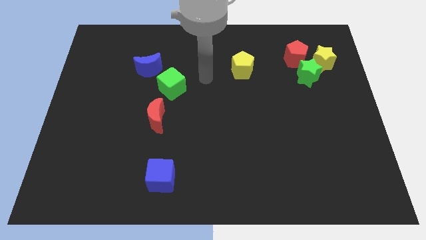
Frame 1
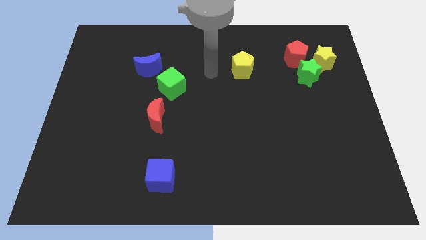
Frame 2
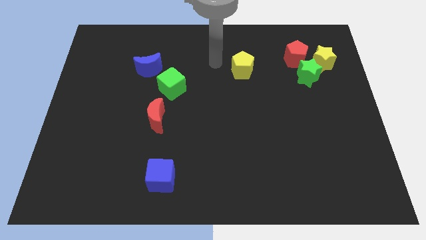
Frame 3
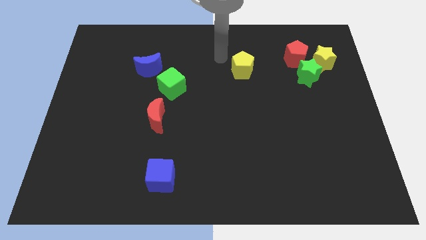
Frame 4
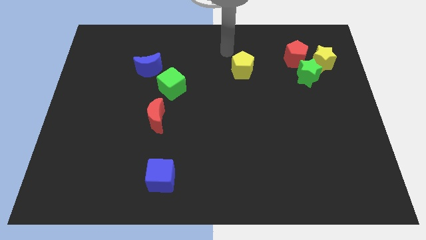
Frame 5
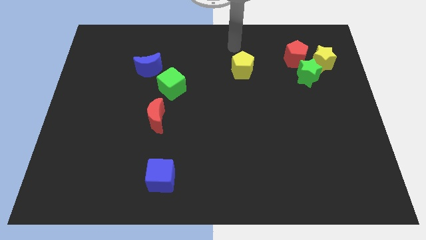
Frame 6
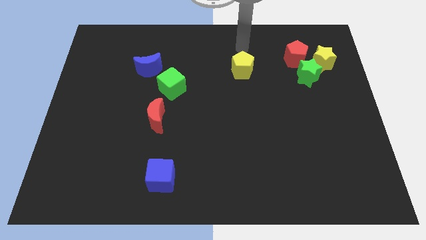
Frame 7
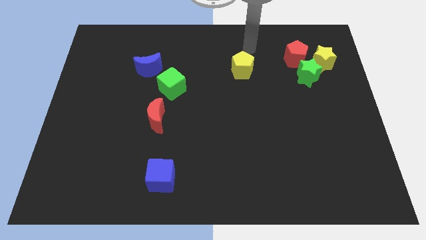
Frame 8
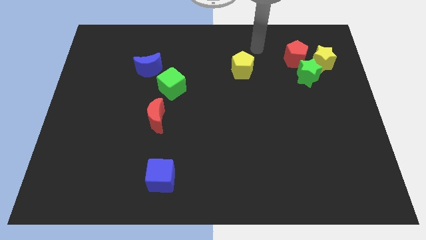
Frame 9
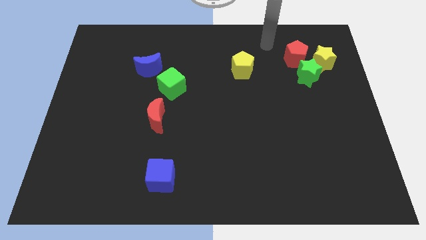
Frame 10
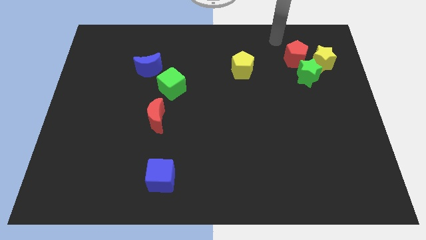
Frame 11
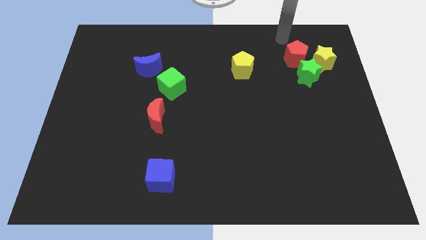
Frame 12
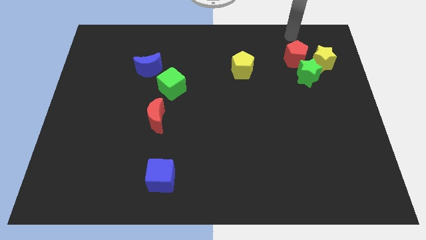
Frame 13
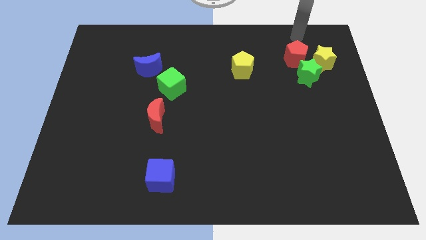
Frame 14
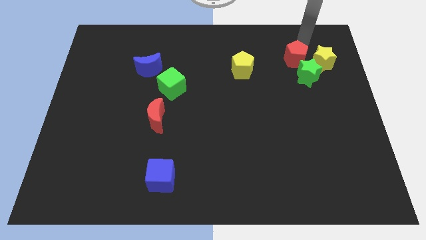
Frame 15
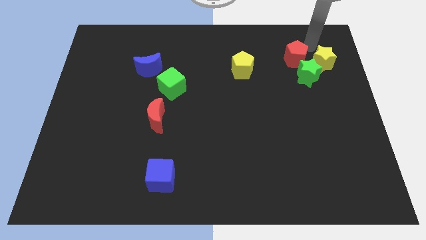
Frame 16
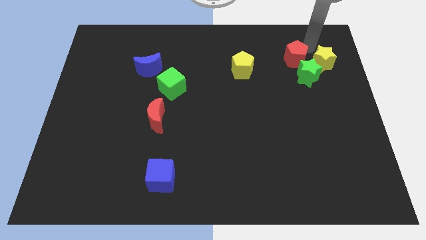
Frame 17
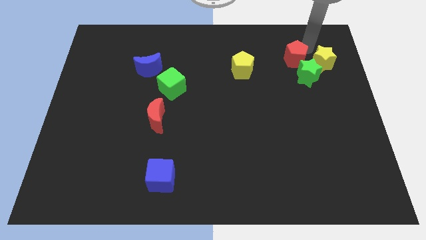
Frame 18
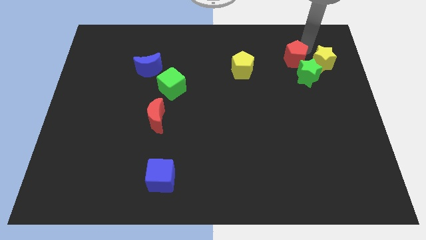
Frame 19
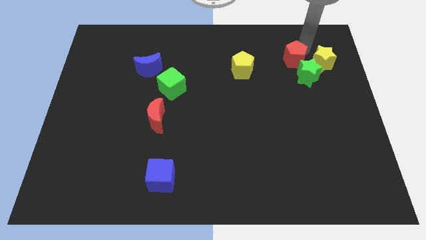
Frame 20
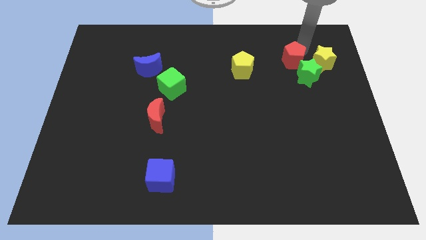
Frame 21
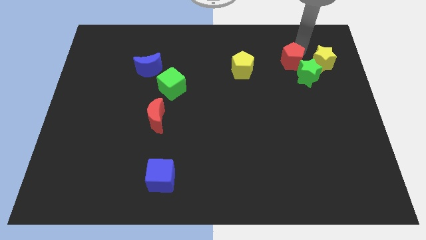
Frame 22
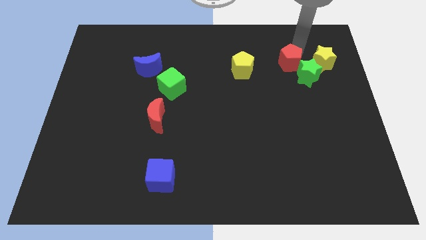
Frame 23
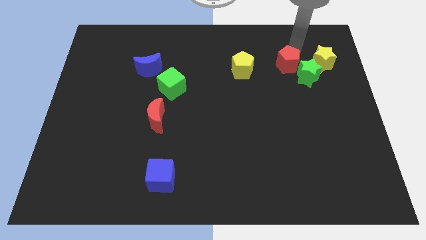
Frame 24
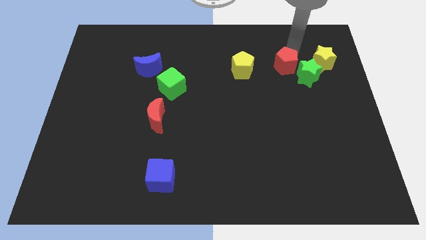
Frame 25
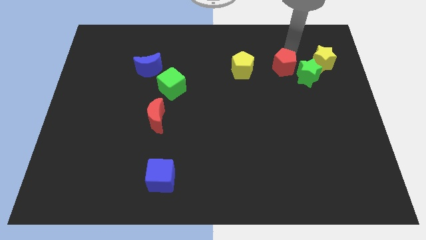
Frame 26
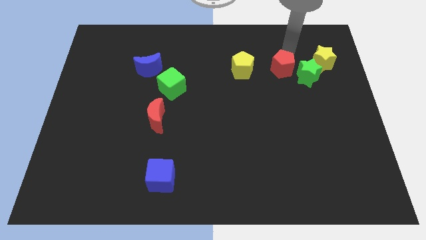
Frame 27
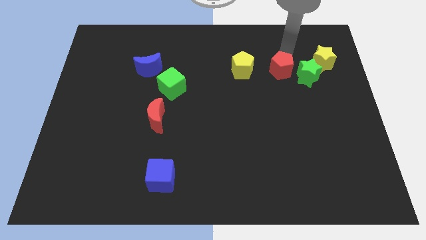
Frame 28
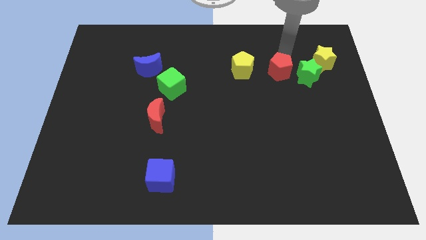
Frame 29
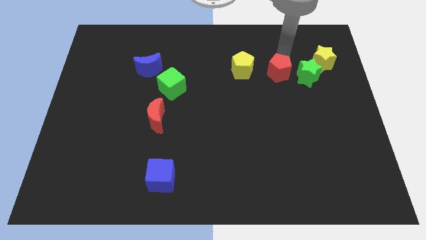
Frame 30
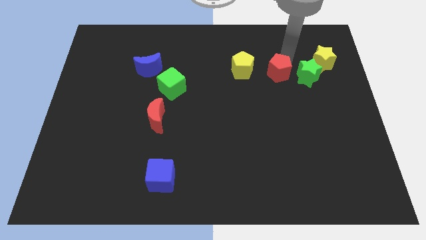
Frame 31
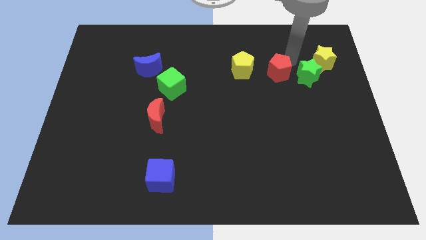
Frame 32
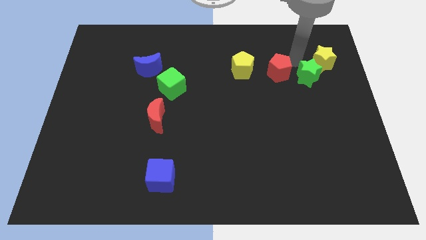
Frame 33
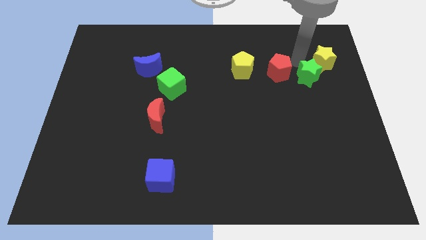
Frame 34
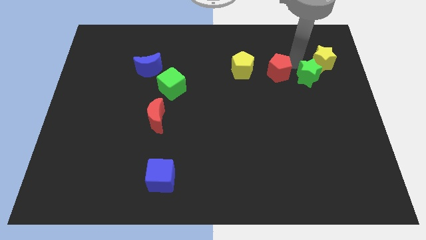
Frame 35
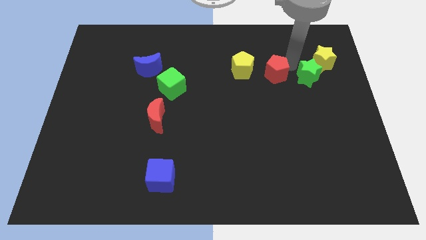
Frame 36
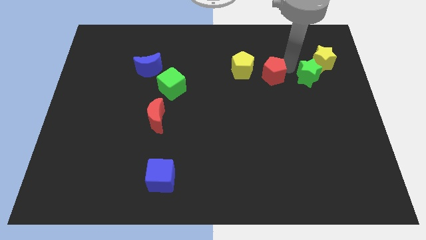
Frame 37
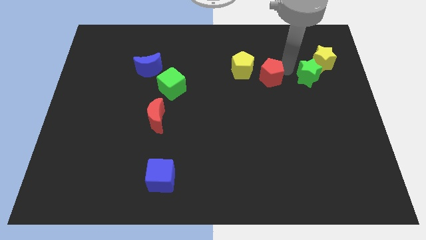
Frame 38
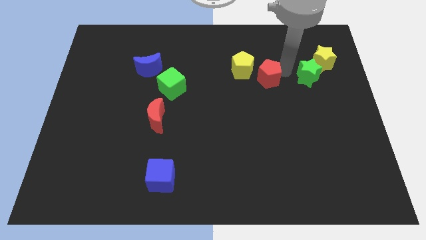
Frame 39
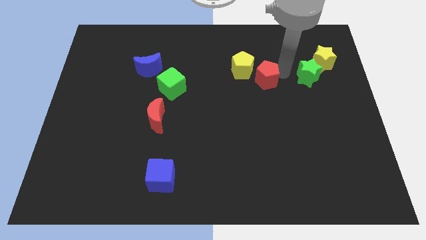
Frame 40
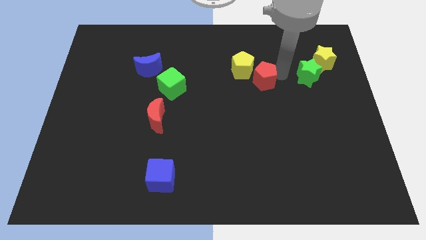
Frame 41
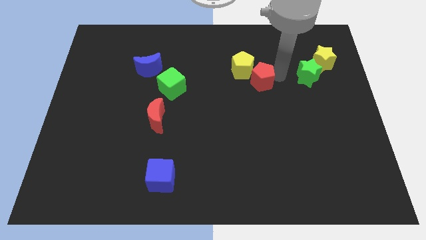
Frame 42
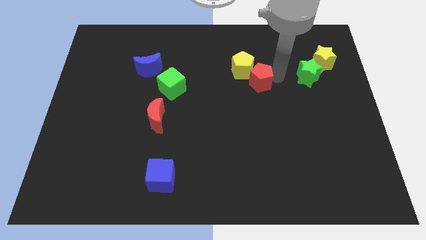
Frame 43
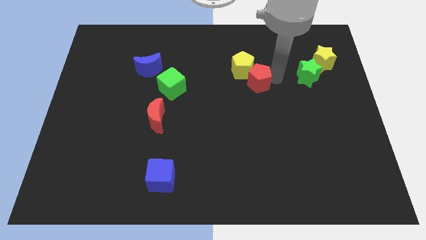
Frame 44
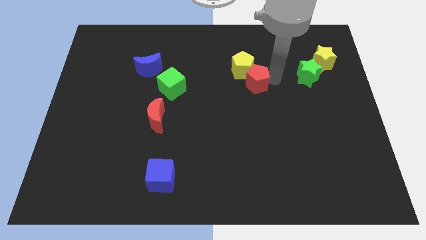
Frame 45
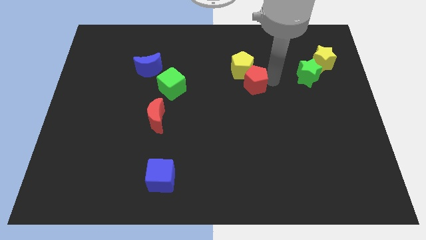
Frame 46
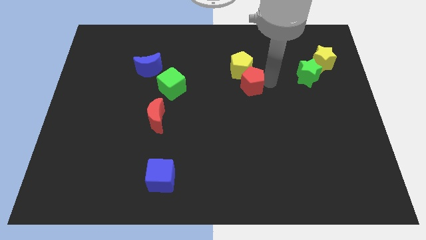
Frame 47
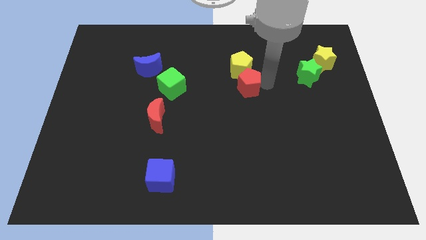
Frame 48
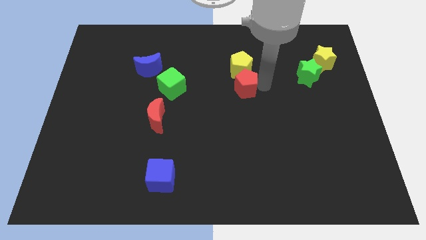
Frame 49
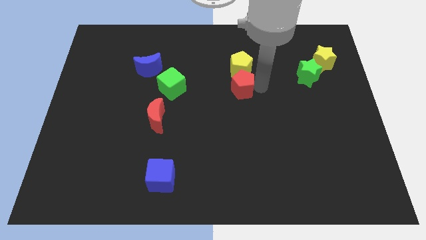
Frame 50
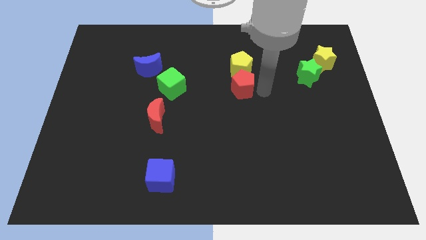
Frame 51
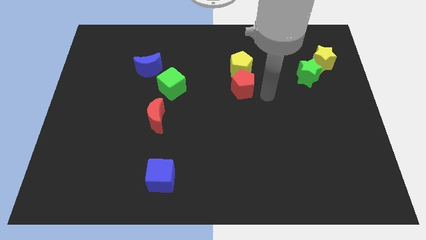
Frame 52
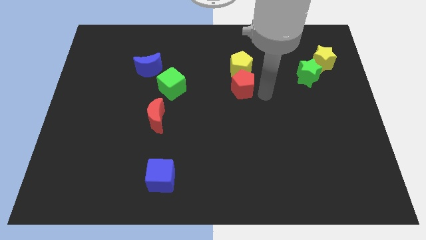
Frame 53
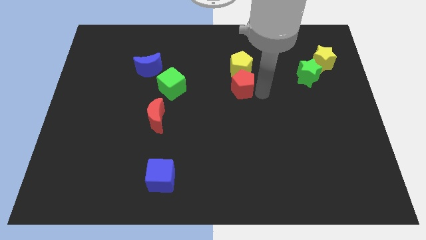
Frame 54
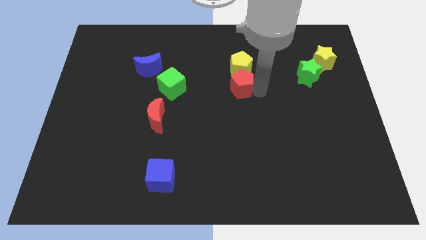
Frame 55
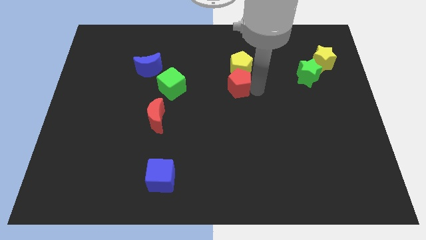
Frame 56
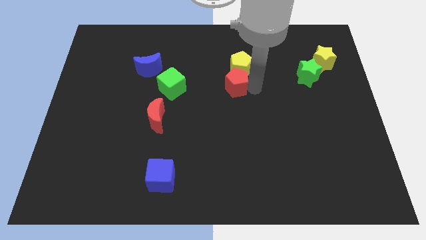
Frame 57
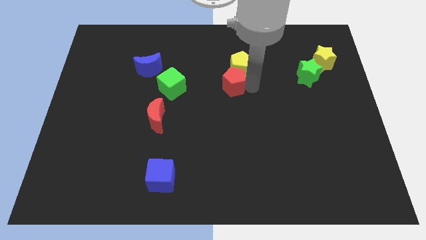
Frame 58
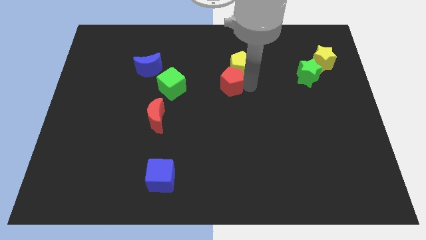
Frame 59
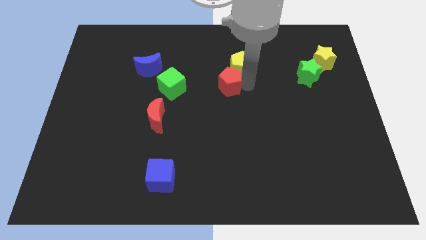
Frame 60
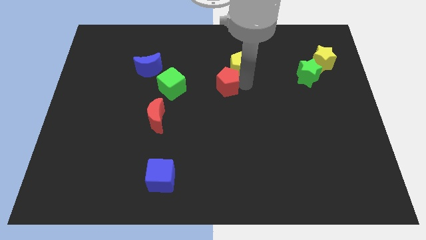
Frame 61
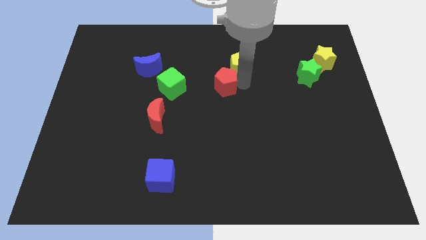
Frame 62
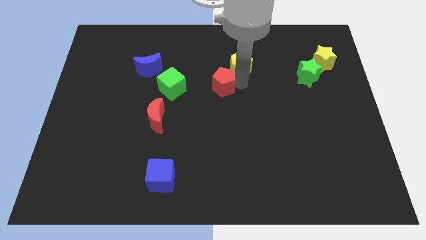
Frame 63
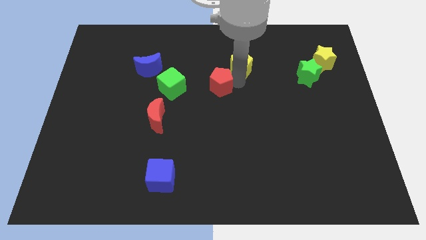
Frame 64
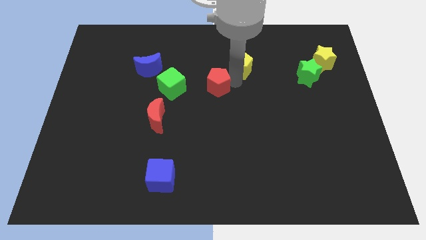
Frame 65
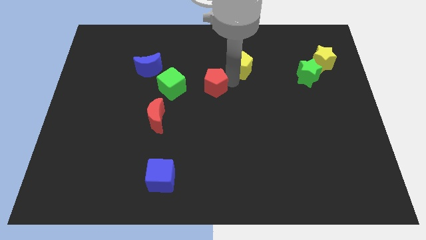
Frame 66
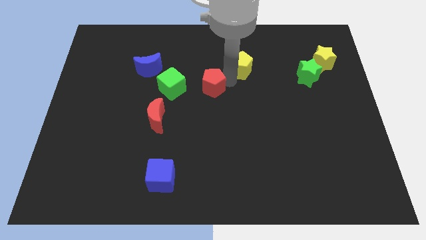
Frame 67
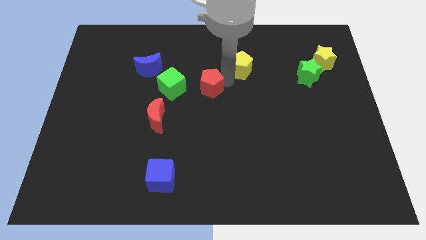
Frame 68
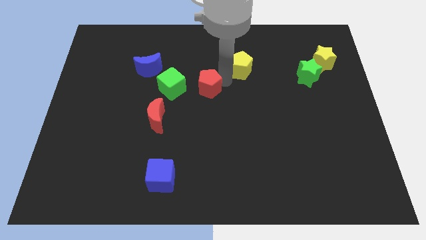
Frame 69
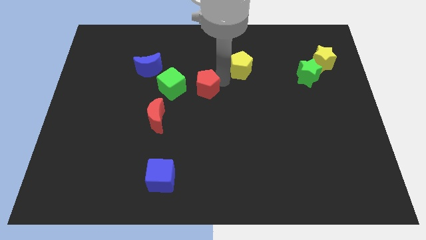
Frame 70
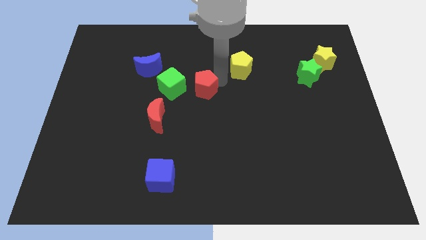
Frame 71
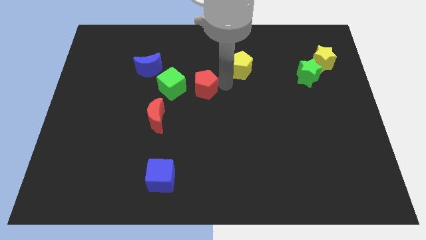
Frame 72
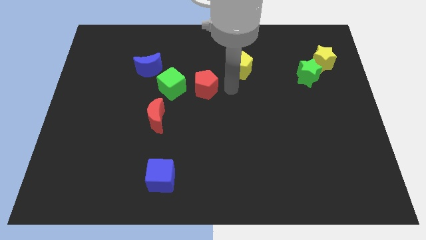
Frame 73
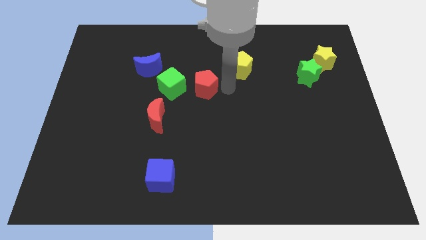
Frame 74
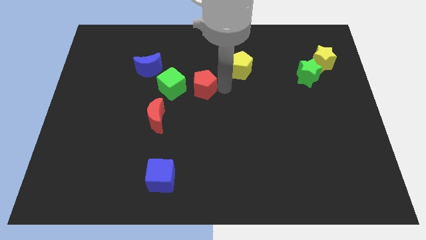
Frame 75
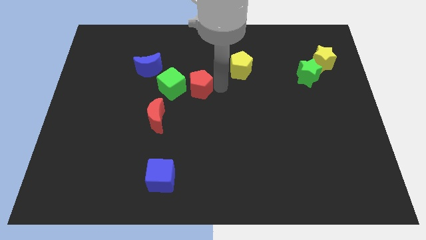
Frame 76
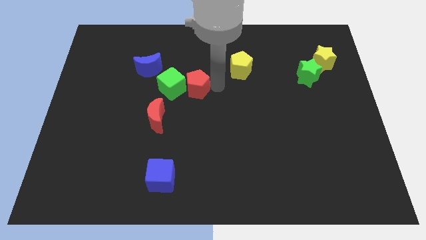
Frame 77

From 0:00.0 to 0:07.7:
slide the red pentagon close to the green cube
